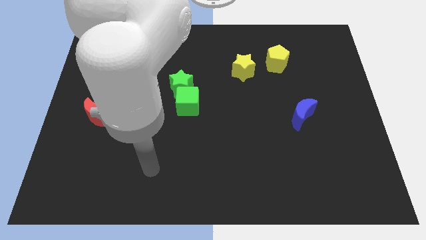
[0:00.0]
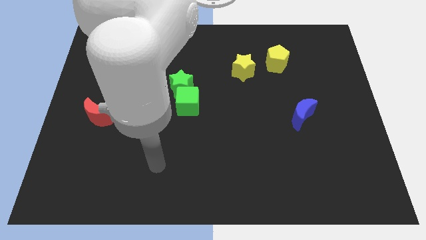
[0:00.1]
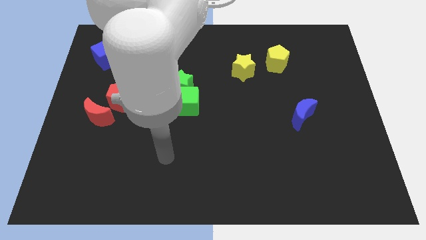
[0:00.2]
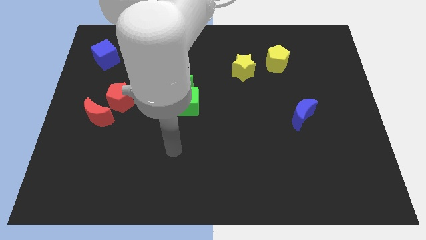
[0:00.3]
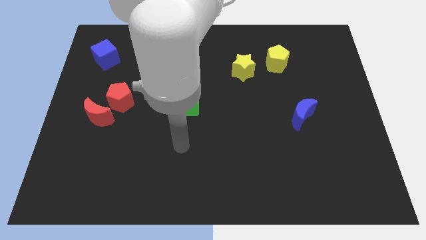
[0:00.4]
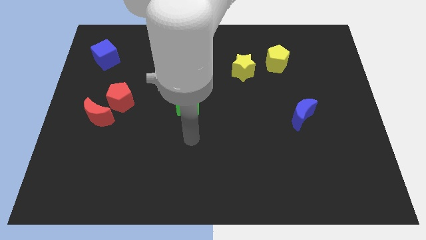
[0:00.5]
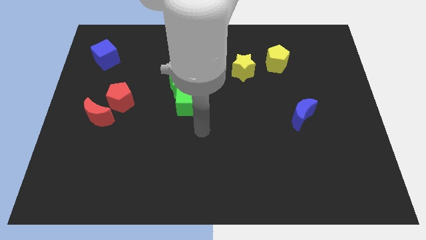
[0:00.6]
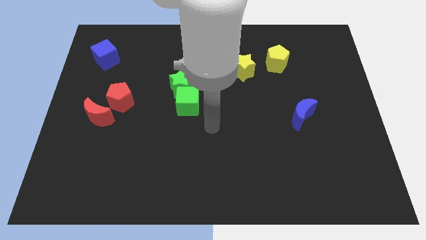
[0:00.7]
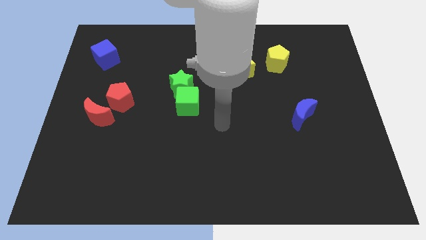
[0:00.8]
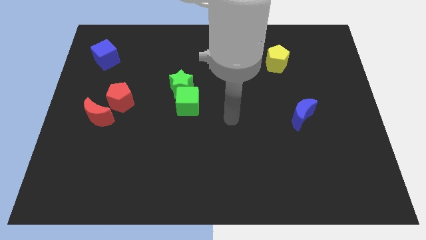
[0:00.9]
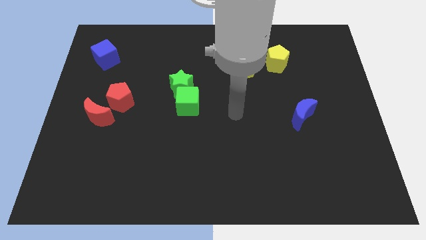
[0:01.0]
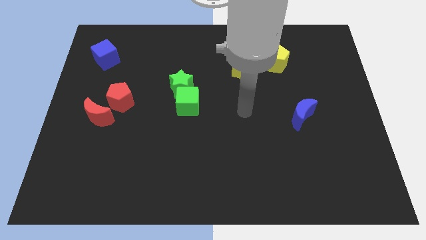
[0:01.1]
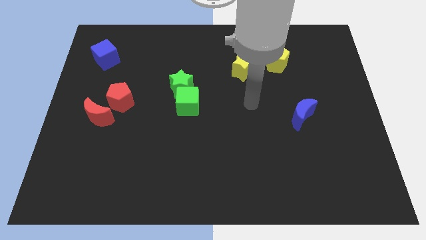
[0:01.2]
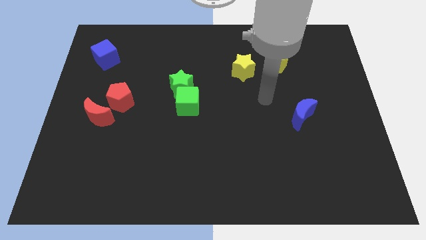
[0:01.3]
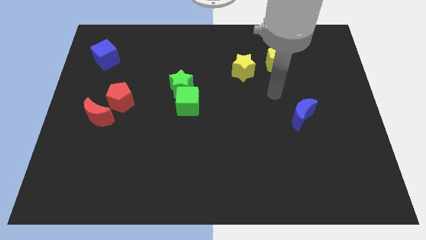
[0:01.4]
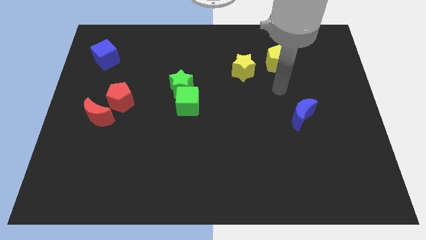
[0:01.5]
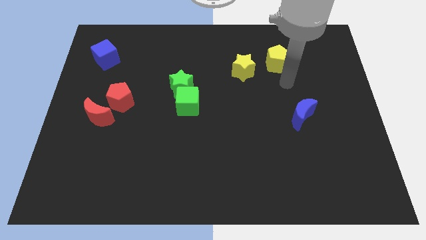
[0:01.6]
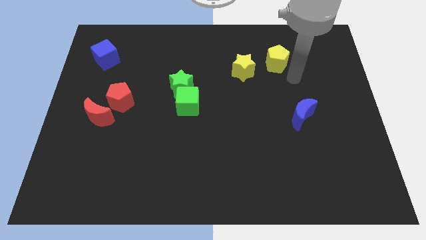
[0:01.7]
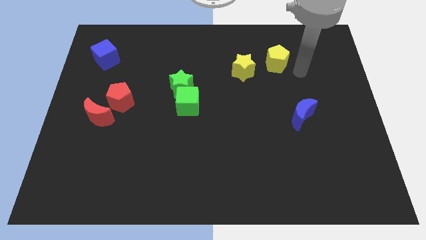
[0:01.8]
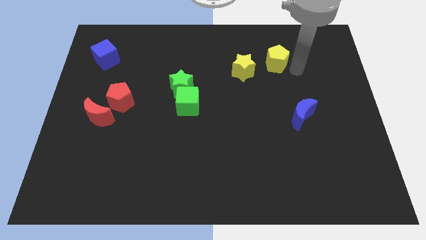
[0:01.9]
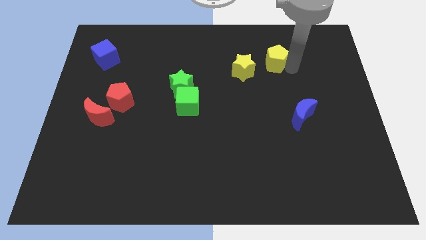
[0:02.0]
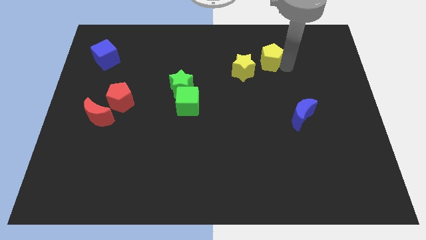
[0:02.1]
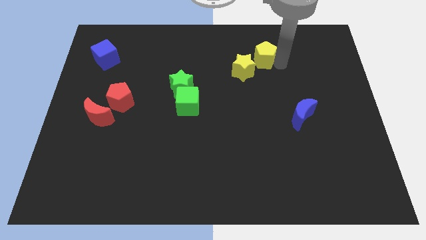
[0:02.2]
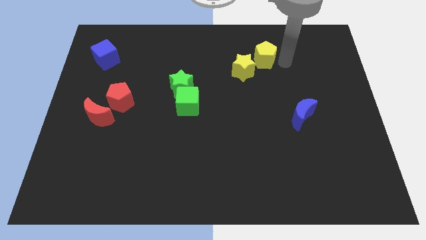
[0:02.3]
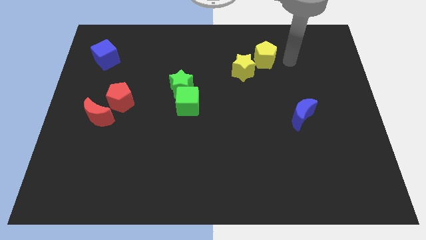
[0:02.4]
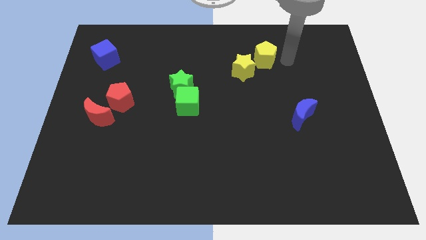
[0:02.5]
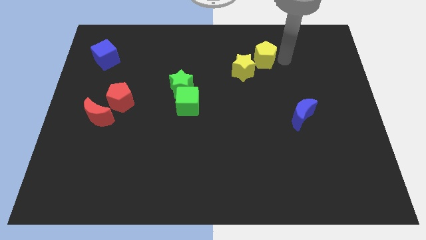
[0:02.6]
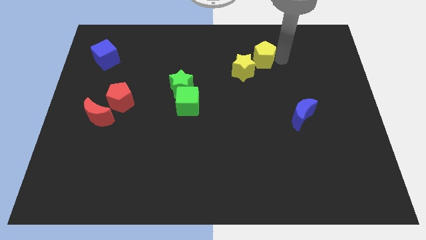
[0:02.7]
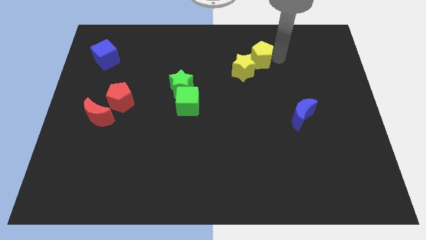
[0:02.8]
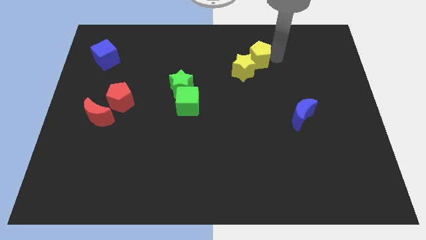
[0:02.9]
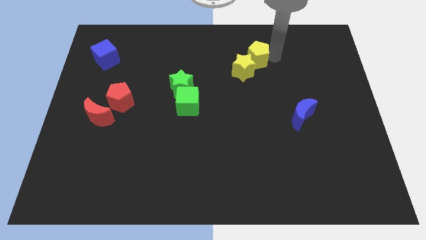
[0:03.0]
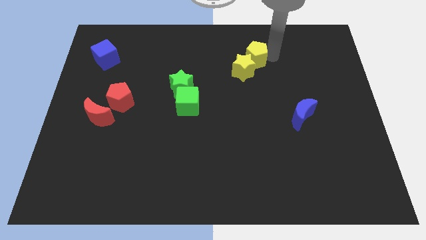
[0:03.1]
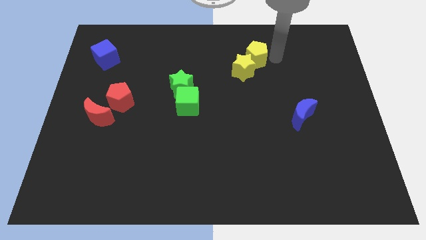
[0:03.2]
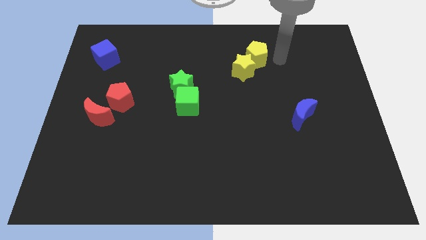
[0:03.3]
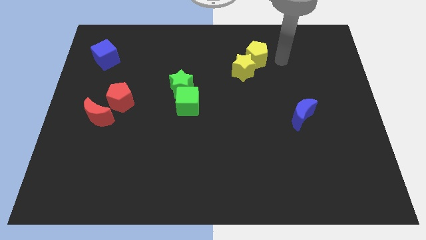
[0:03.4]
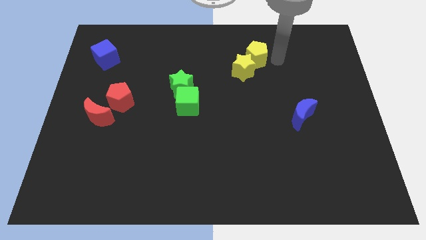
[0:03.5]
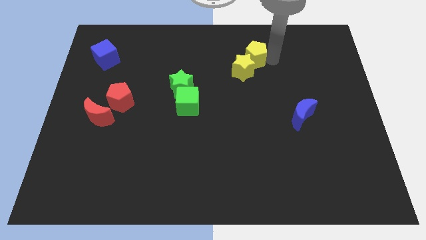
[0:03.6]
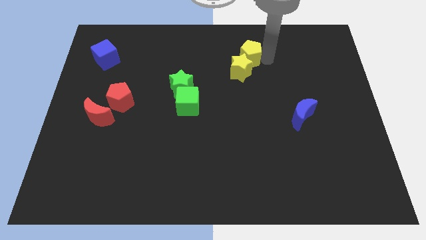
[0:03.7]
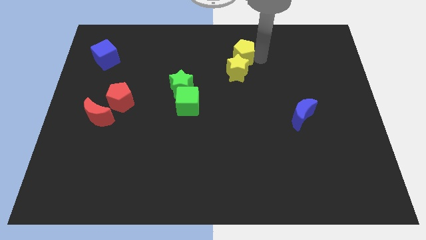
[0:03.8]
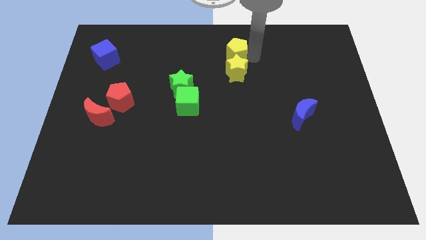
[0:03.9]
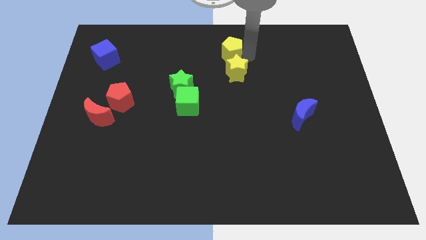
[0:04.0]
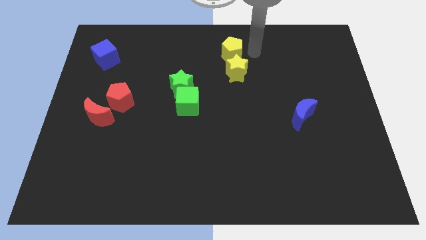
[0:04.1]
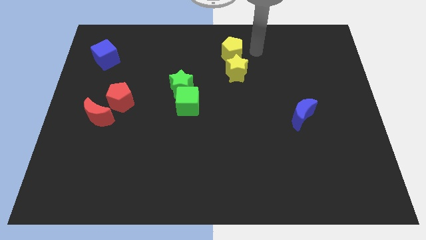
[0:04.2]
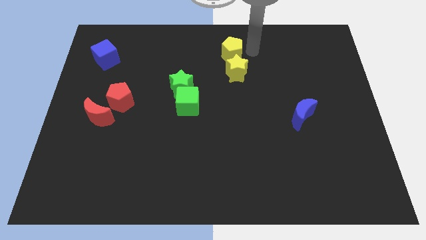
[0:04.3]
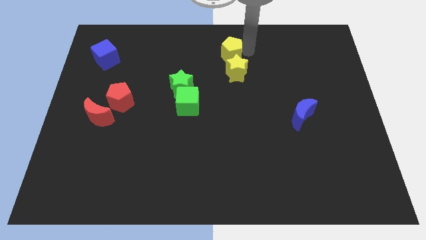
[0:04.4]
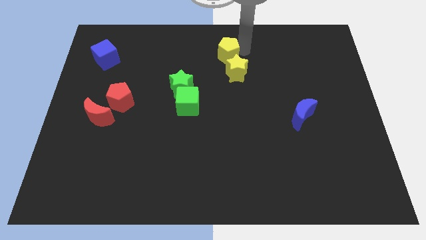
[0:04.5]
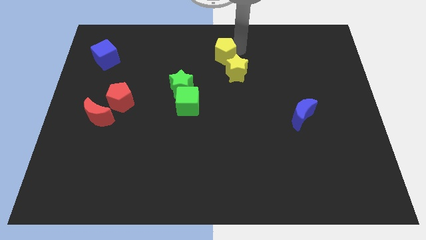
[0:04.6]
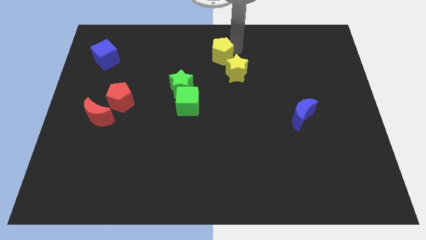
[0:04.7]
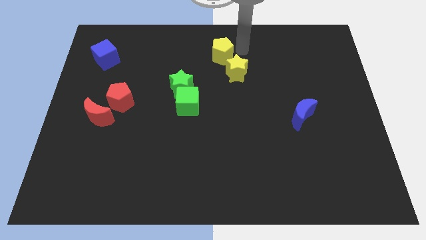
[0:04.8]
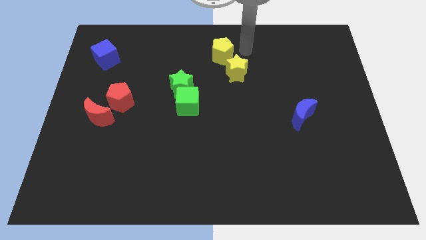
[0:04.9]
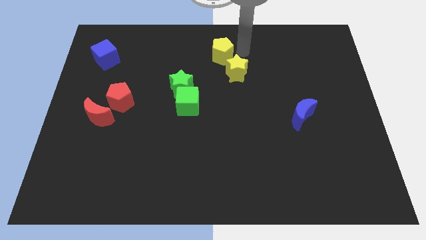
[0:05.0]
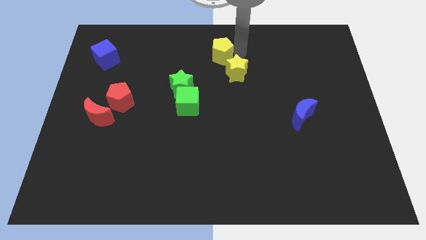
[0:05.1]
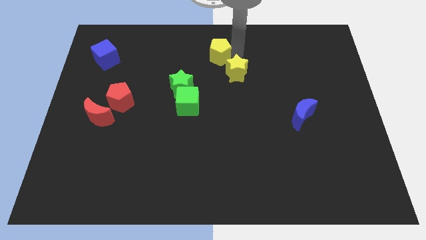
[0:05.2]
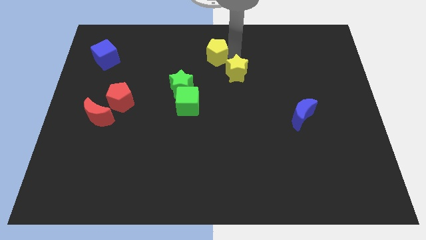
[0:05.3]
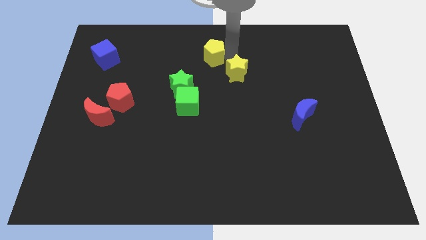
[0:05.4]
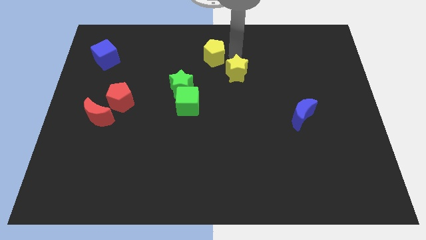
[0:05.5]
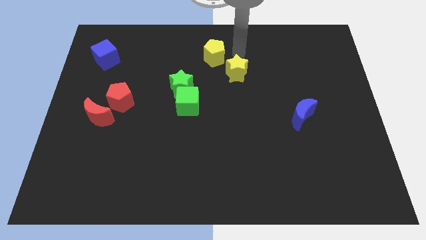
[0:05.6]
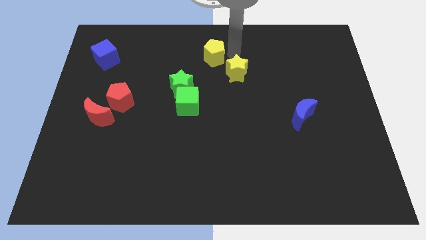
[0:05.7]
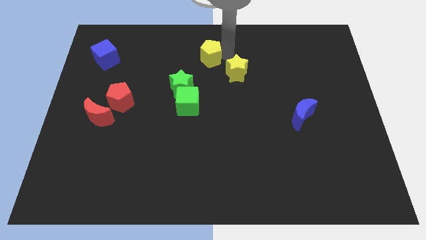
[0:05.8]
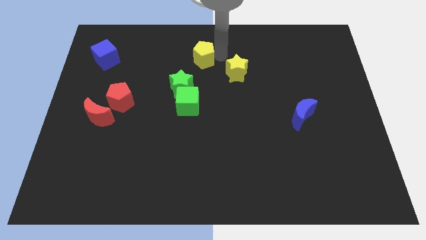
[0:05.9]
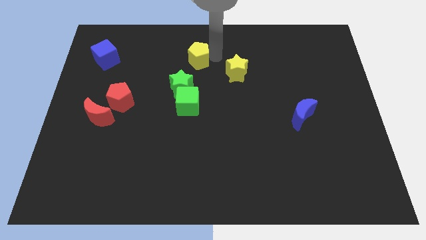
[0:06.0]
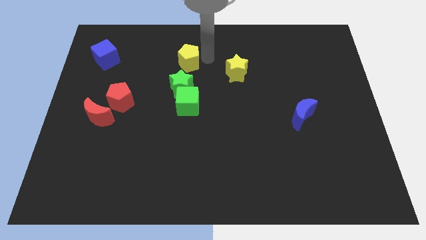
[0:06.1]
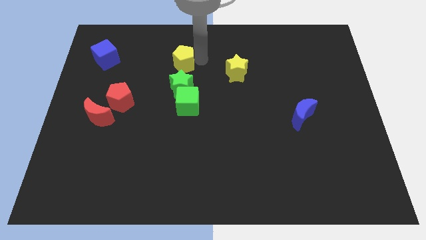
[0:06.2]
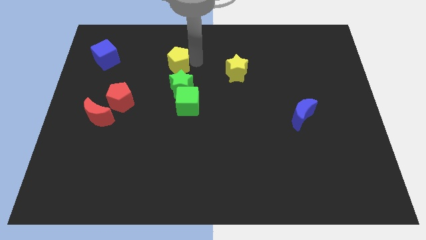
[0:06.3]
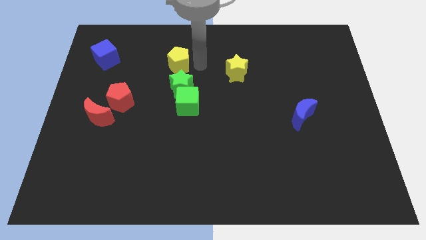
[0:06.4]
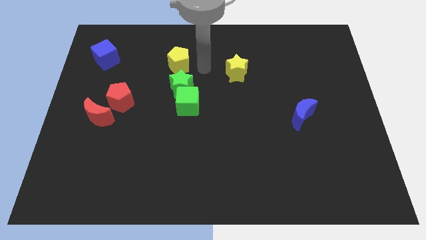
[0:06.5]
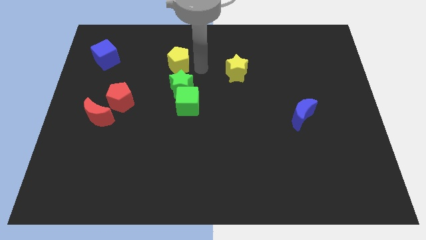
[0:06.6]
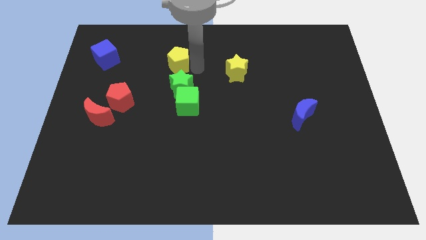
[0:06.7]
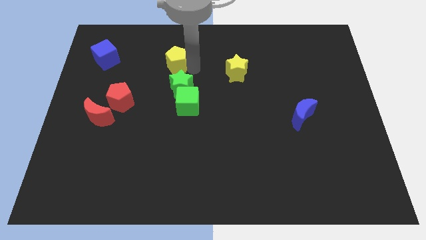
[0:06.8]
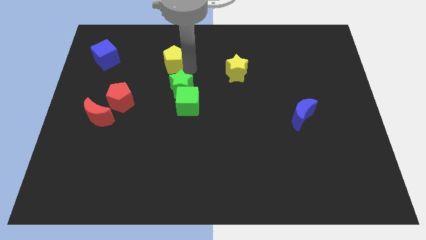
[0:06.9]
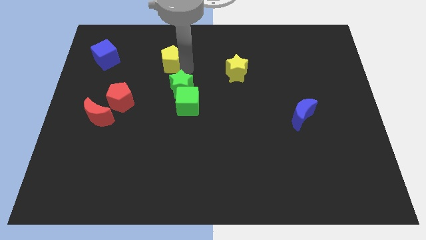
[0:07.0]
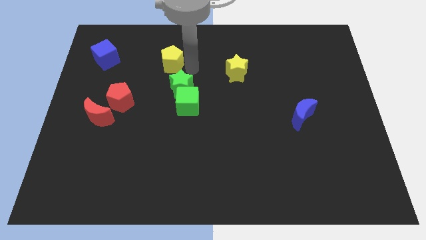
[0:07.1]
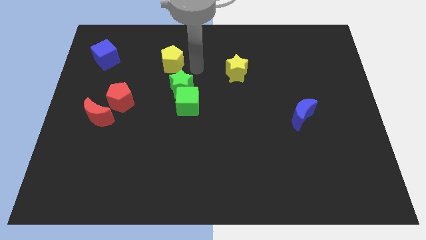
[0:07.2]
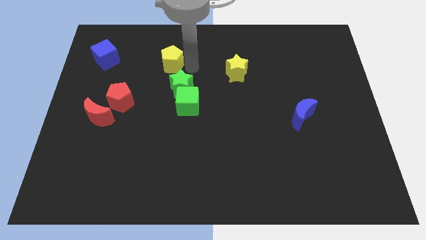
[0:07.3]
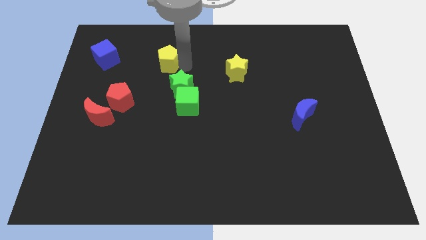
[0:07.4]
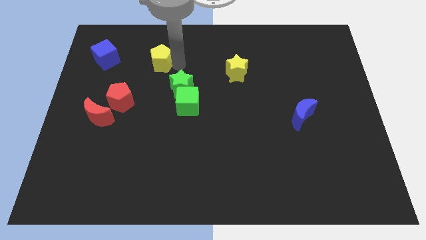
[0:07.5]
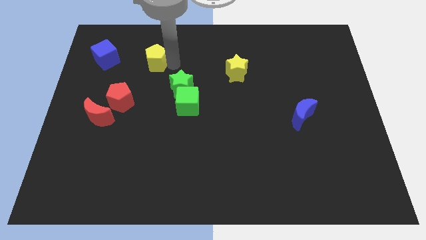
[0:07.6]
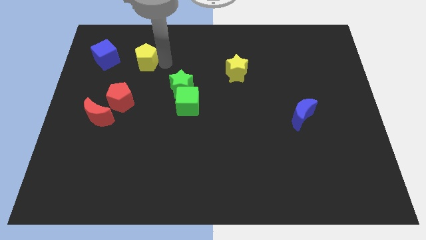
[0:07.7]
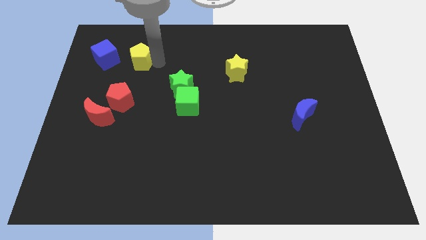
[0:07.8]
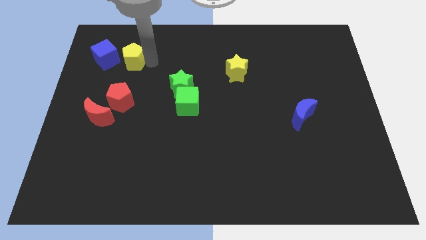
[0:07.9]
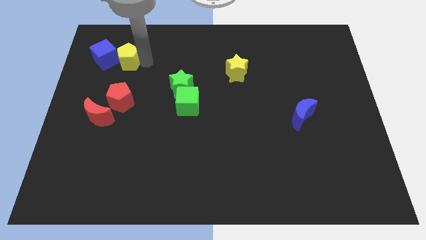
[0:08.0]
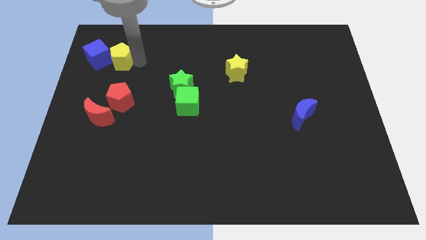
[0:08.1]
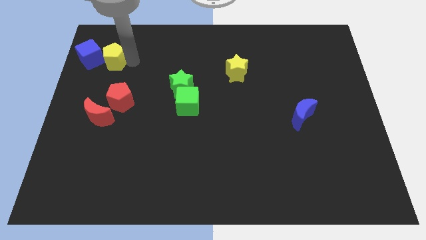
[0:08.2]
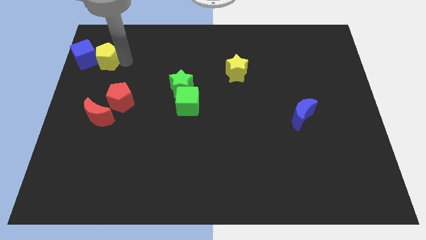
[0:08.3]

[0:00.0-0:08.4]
push the yellow pentagon next to the blue cube
